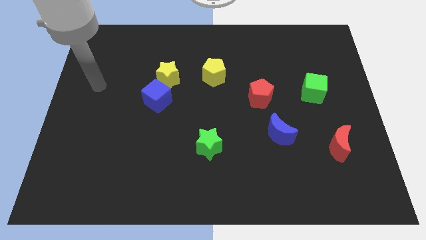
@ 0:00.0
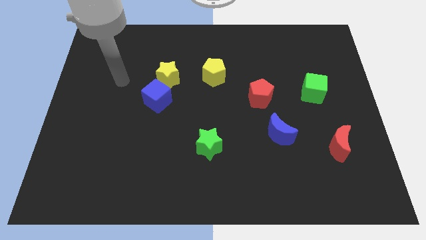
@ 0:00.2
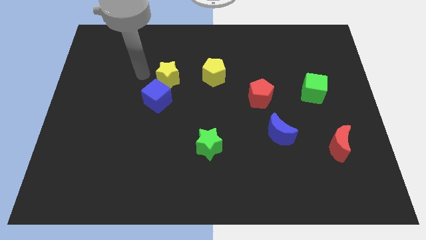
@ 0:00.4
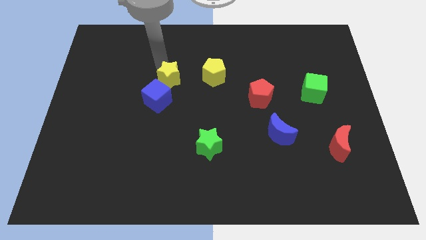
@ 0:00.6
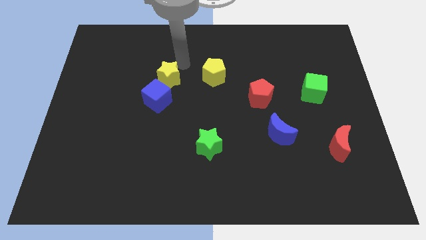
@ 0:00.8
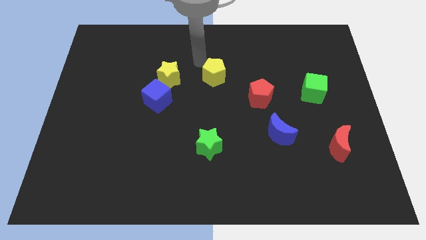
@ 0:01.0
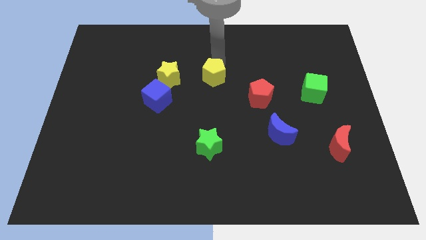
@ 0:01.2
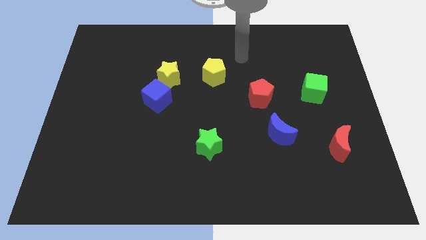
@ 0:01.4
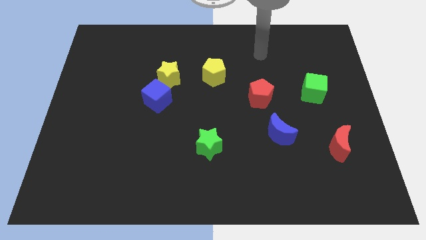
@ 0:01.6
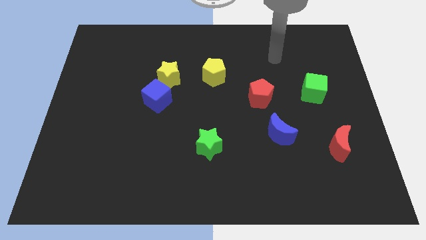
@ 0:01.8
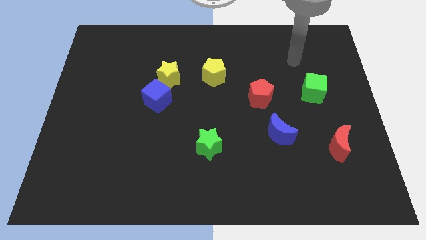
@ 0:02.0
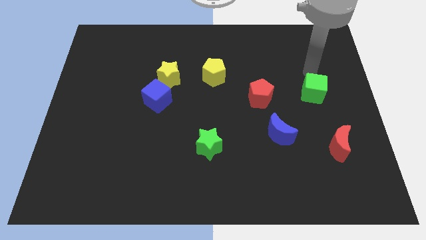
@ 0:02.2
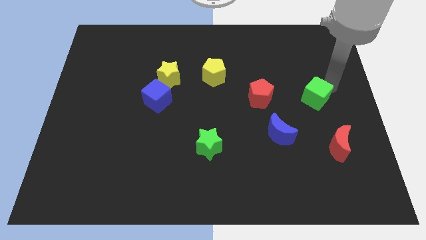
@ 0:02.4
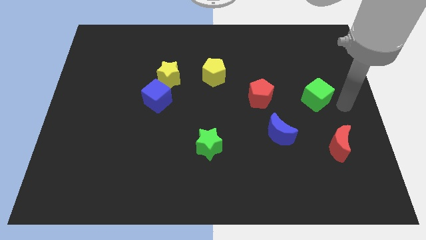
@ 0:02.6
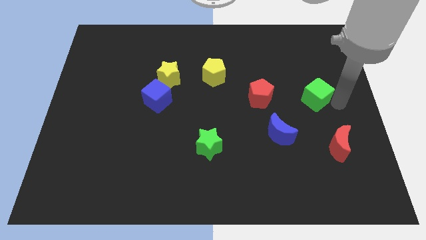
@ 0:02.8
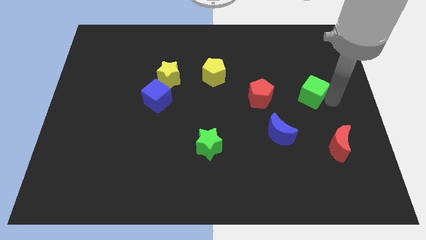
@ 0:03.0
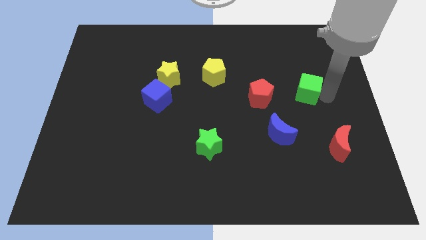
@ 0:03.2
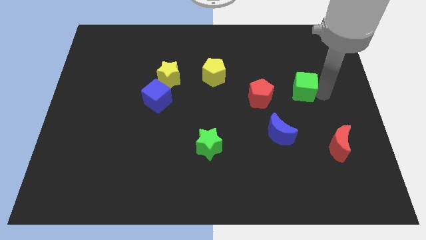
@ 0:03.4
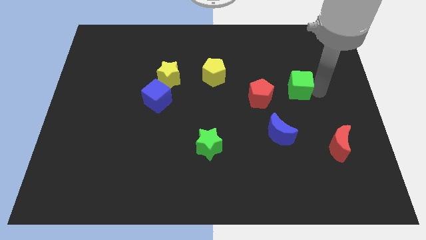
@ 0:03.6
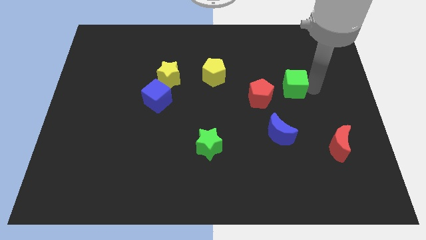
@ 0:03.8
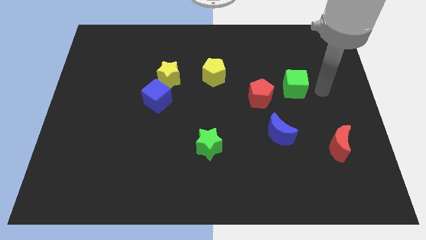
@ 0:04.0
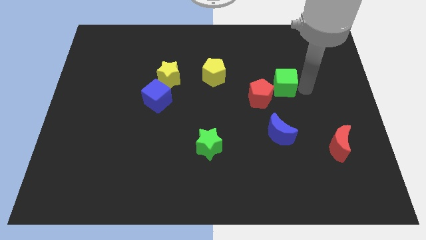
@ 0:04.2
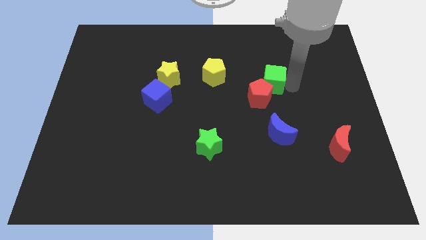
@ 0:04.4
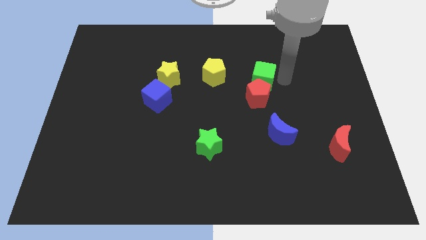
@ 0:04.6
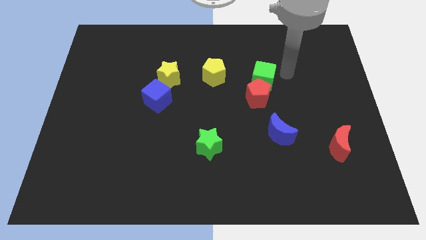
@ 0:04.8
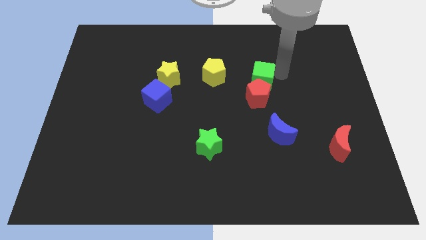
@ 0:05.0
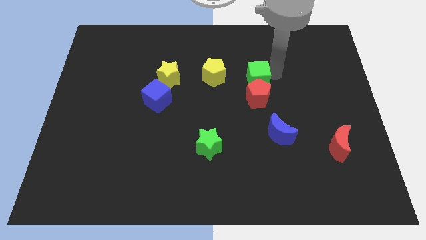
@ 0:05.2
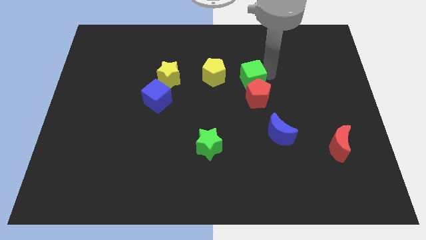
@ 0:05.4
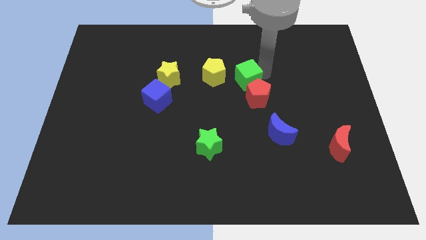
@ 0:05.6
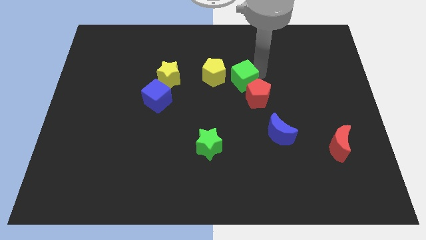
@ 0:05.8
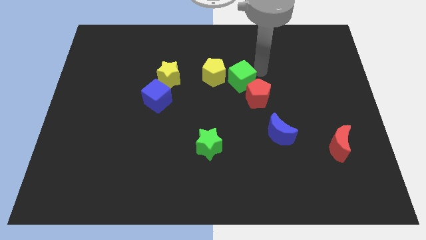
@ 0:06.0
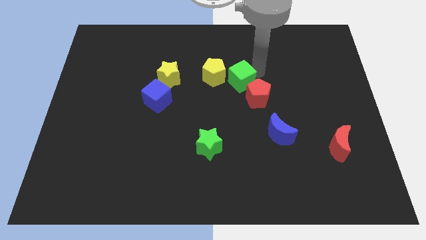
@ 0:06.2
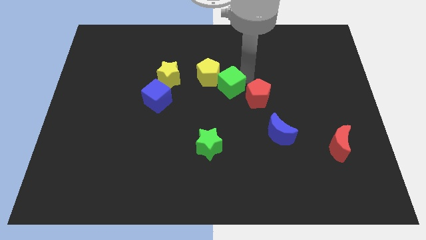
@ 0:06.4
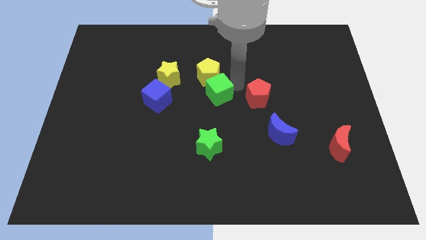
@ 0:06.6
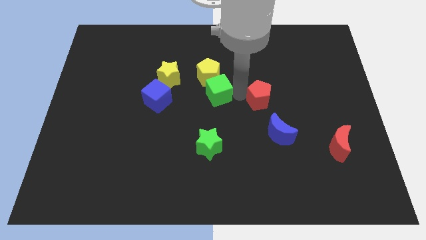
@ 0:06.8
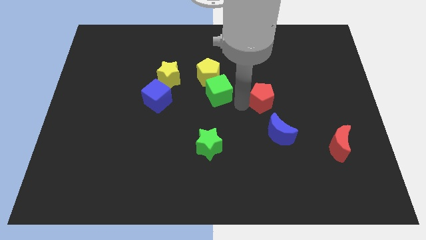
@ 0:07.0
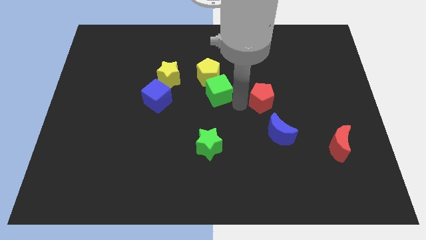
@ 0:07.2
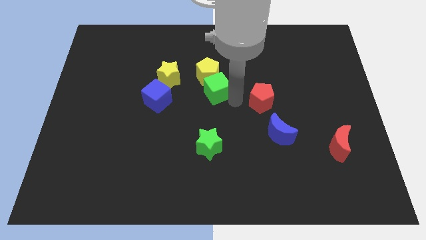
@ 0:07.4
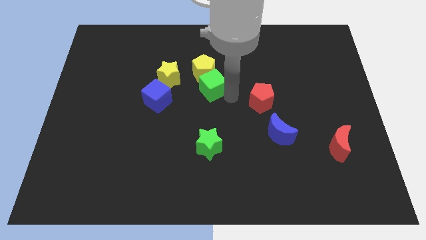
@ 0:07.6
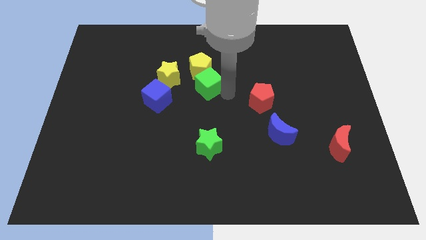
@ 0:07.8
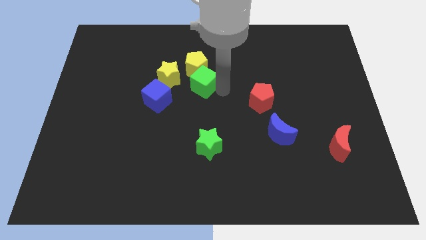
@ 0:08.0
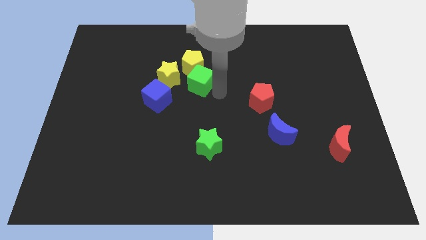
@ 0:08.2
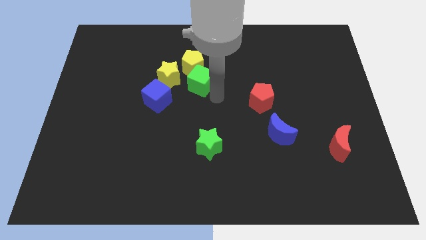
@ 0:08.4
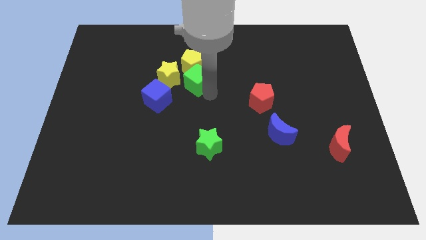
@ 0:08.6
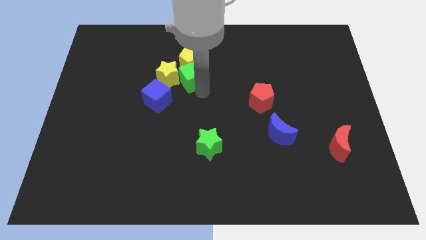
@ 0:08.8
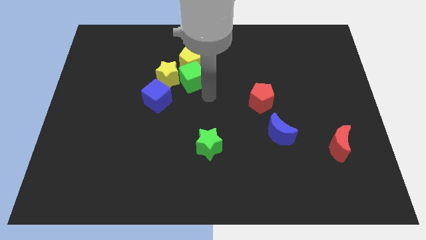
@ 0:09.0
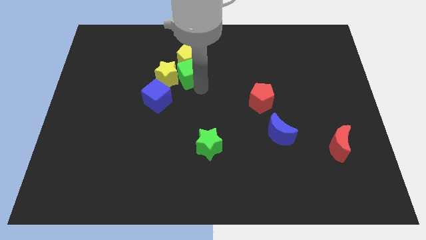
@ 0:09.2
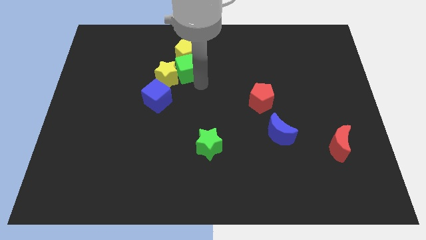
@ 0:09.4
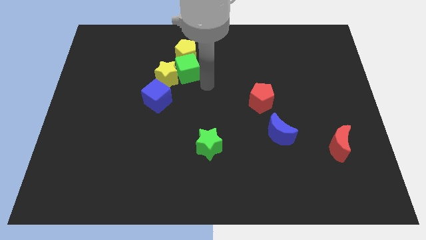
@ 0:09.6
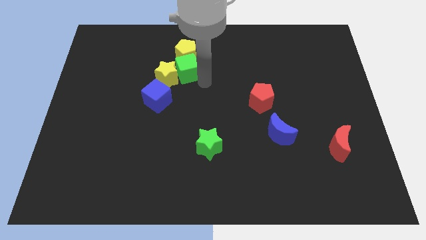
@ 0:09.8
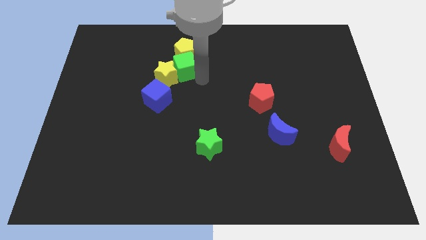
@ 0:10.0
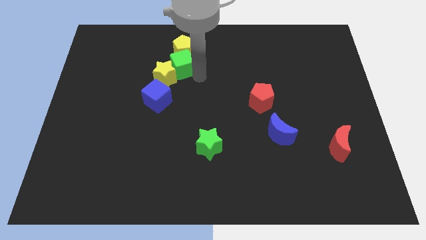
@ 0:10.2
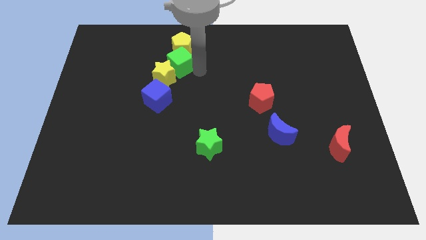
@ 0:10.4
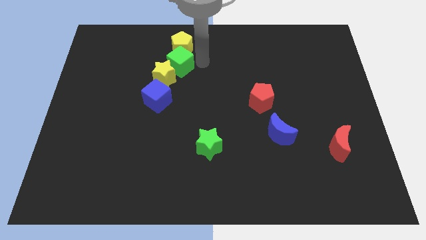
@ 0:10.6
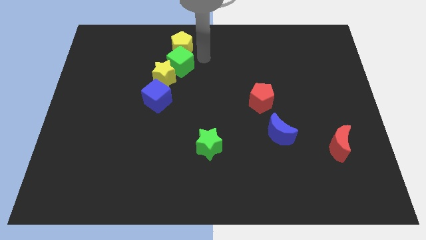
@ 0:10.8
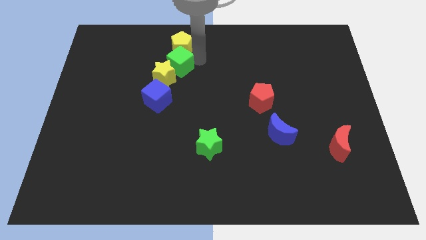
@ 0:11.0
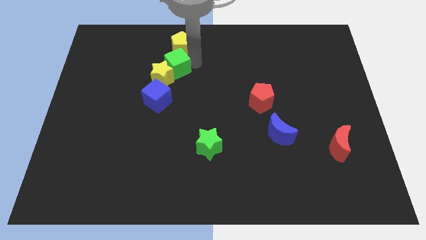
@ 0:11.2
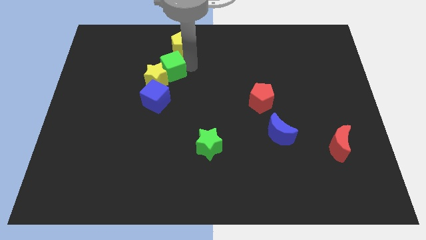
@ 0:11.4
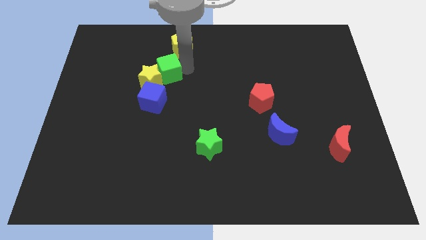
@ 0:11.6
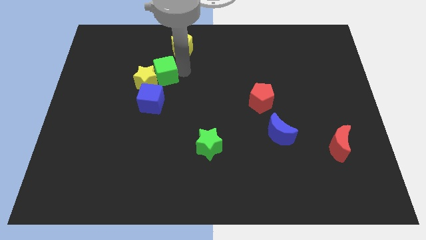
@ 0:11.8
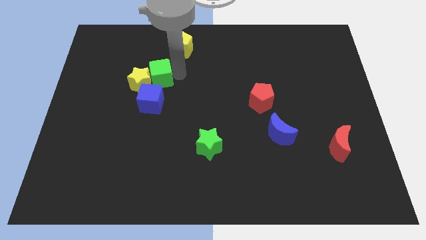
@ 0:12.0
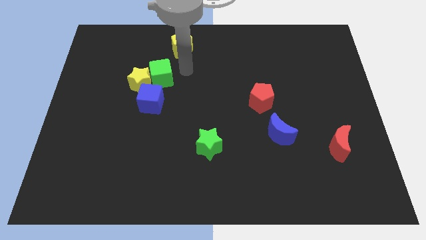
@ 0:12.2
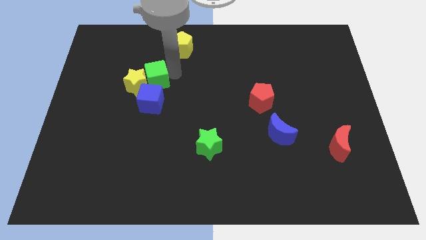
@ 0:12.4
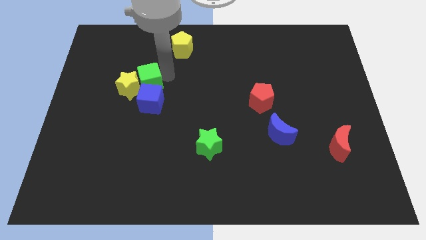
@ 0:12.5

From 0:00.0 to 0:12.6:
slide the green cube to the top left side of the blue cube
